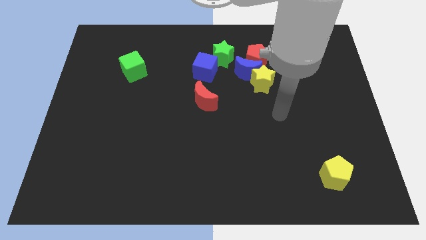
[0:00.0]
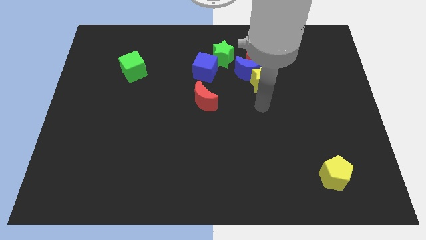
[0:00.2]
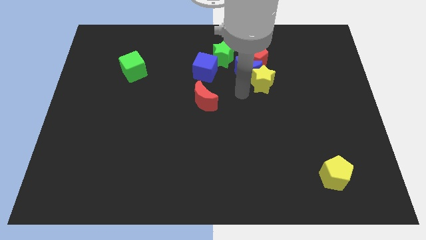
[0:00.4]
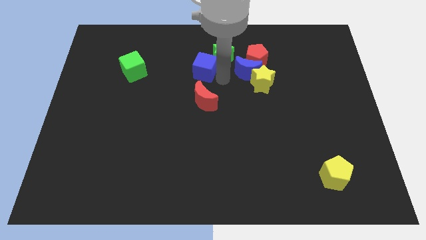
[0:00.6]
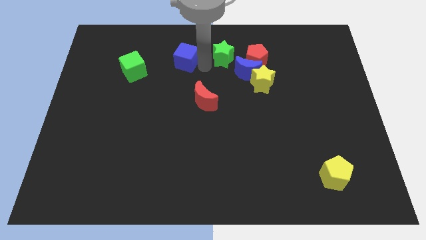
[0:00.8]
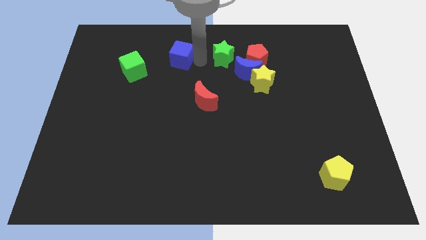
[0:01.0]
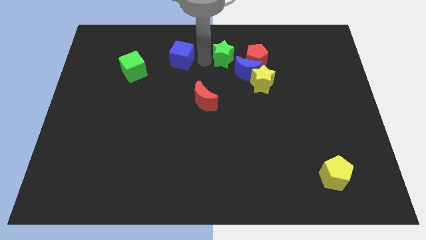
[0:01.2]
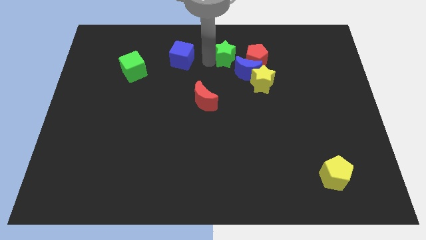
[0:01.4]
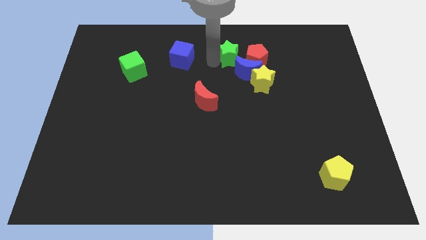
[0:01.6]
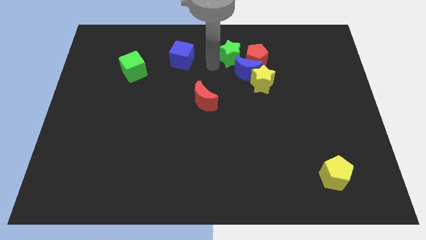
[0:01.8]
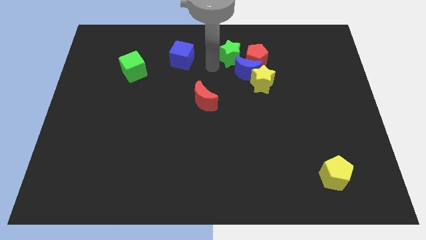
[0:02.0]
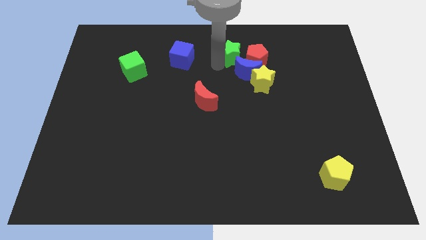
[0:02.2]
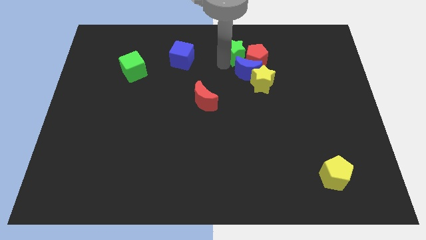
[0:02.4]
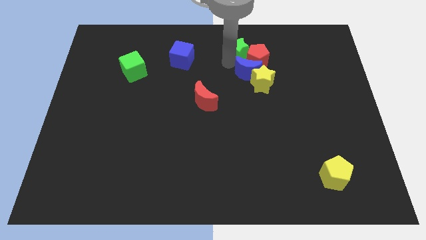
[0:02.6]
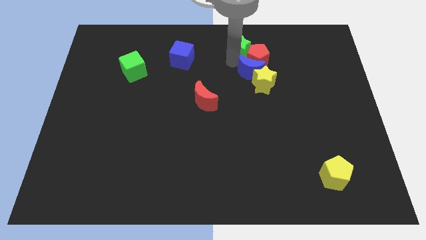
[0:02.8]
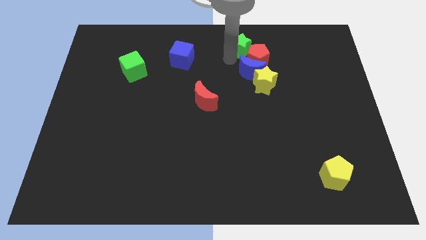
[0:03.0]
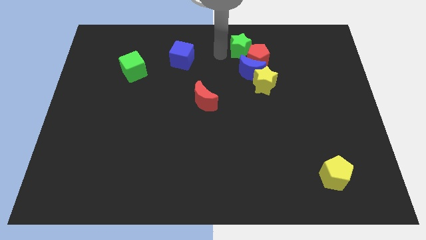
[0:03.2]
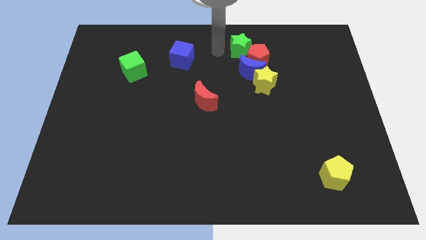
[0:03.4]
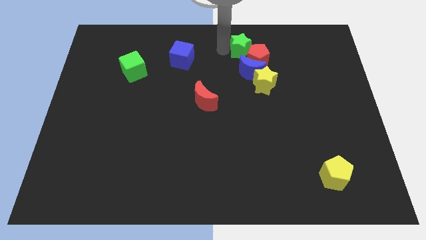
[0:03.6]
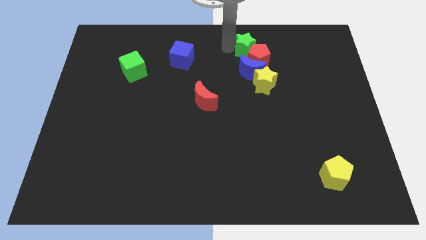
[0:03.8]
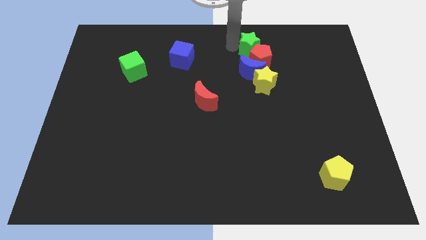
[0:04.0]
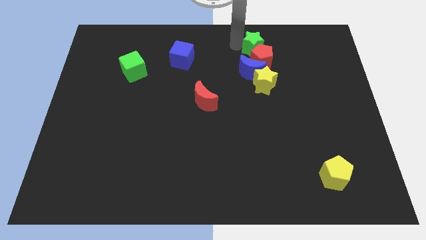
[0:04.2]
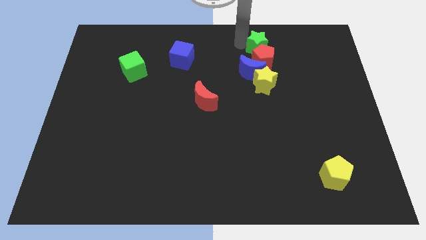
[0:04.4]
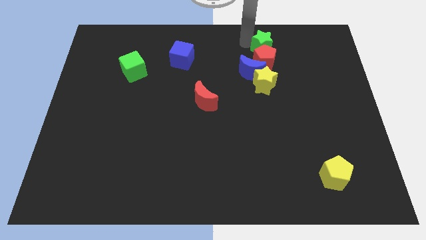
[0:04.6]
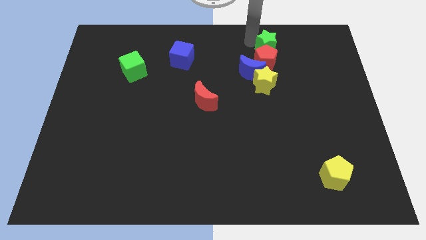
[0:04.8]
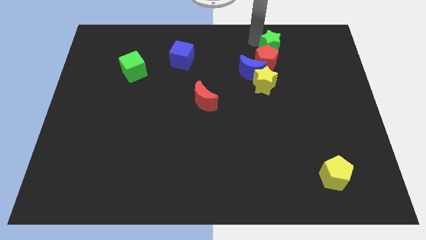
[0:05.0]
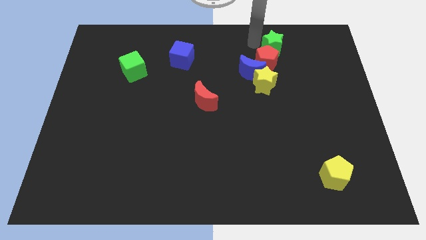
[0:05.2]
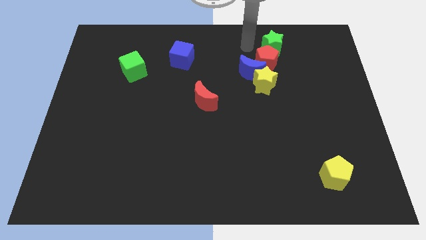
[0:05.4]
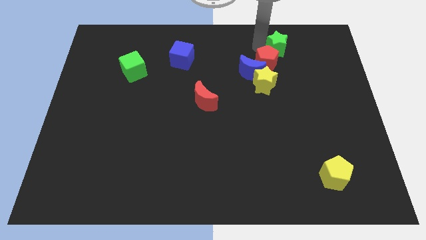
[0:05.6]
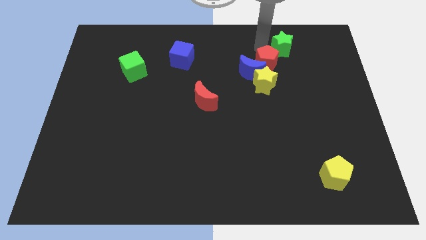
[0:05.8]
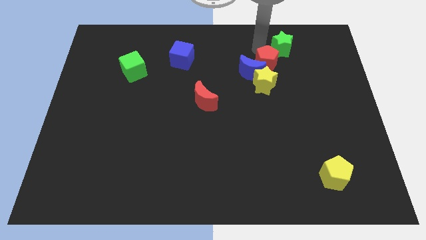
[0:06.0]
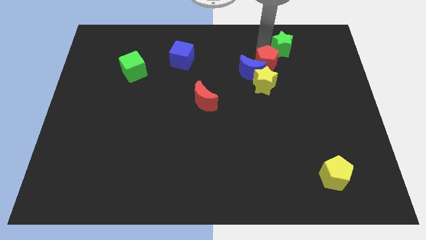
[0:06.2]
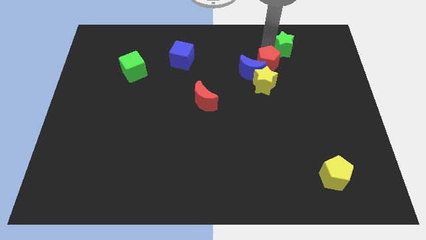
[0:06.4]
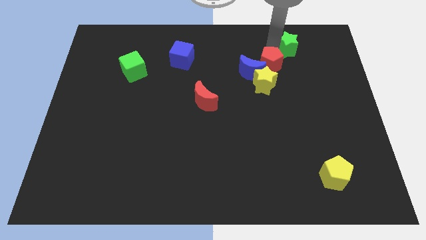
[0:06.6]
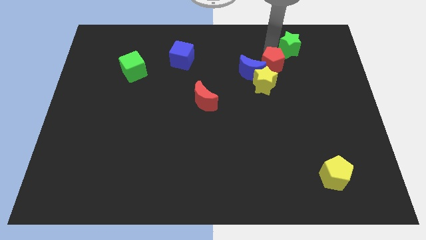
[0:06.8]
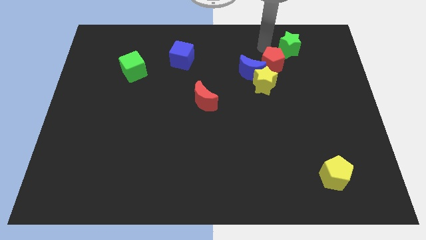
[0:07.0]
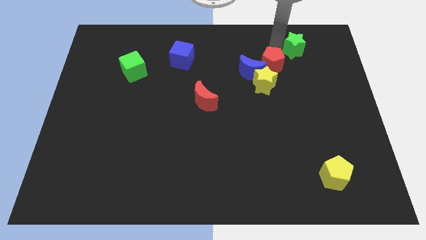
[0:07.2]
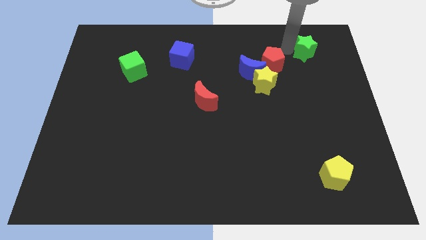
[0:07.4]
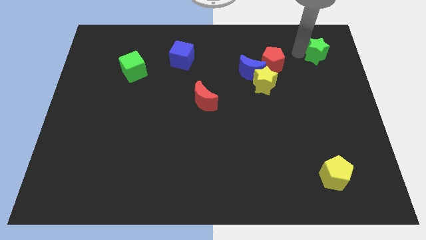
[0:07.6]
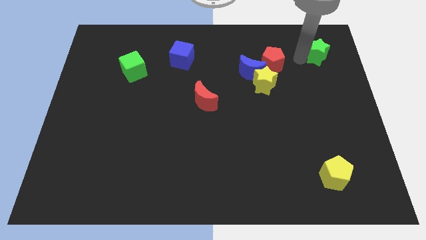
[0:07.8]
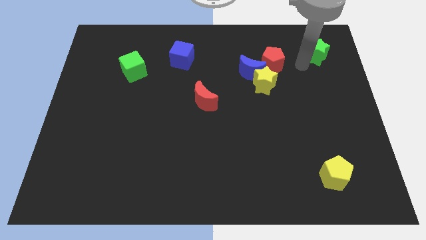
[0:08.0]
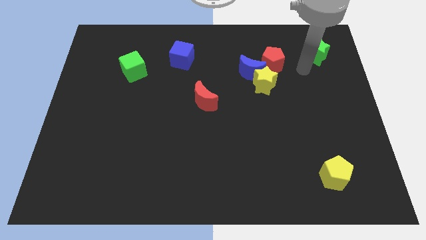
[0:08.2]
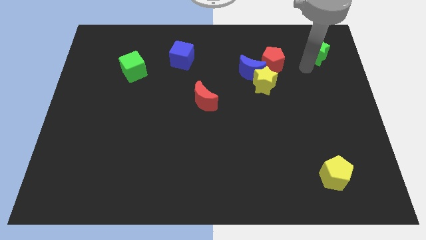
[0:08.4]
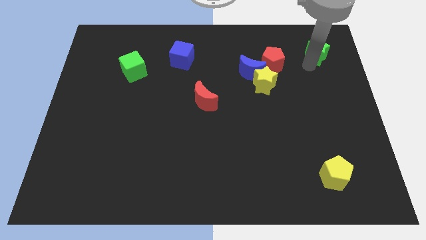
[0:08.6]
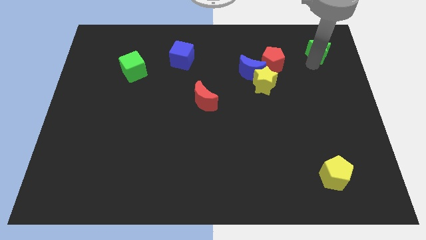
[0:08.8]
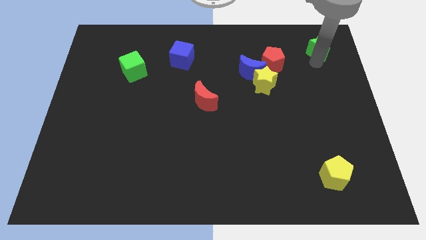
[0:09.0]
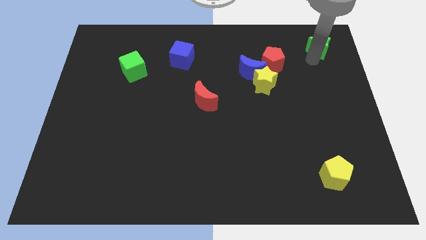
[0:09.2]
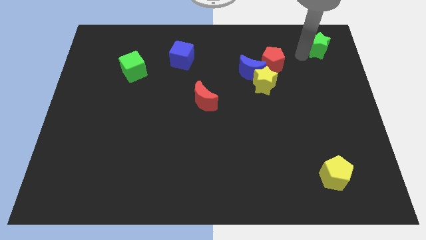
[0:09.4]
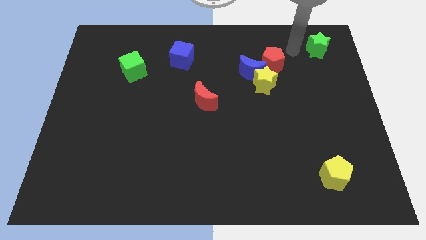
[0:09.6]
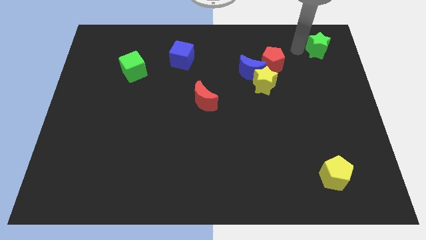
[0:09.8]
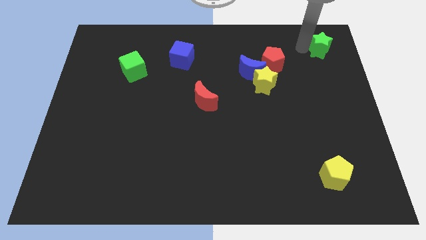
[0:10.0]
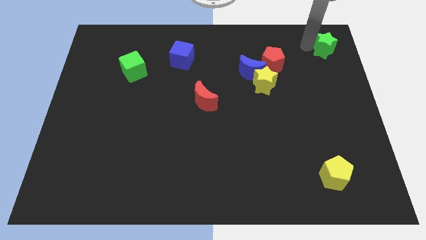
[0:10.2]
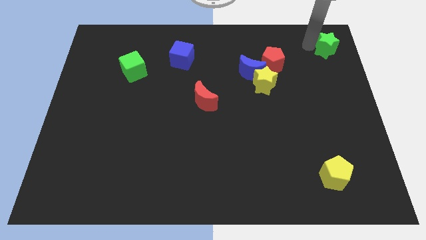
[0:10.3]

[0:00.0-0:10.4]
move the green star to the top right corner
